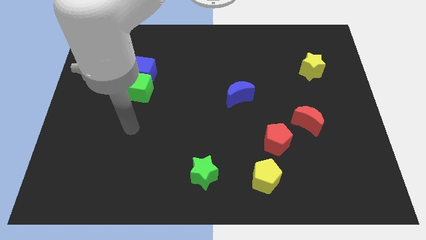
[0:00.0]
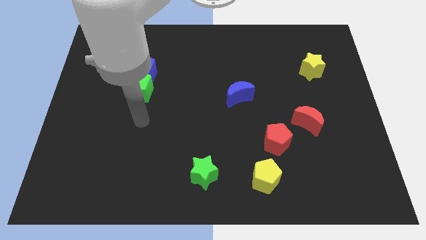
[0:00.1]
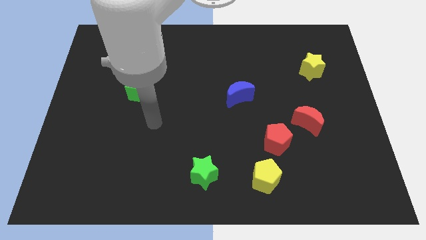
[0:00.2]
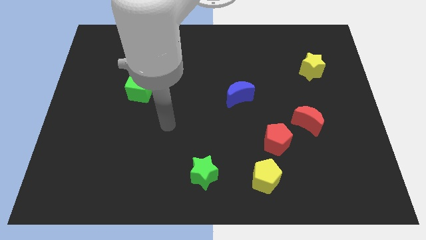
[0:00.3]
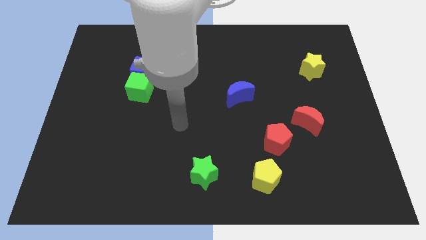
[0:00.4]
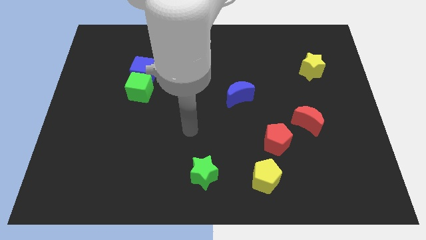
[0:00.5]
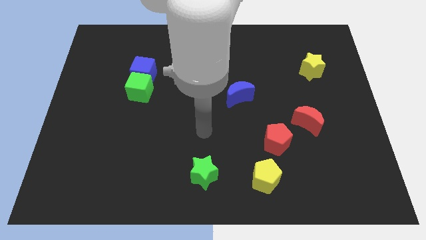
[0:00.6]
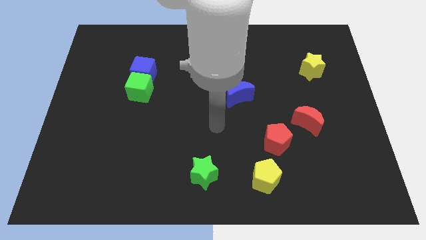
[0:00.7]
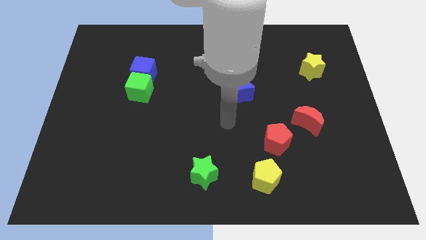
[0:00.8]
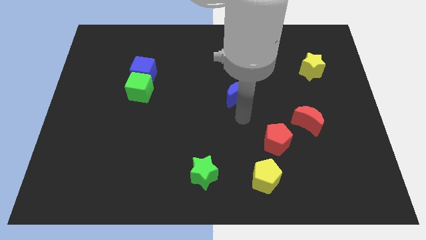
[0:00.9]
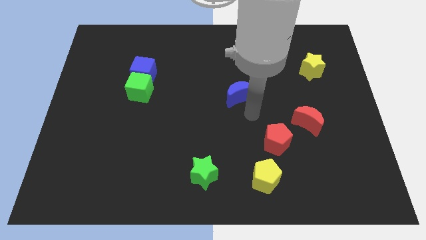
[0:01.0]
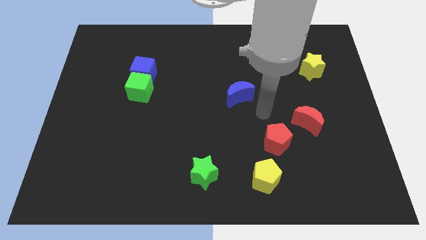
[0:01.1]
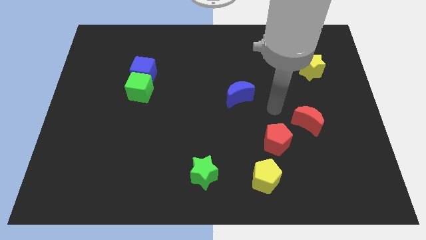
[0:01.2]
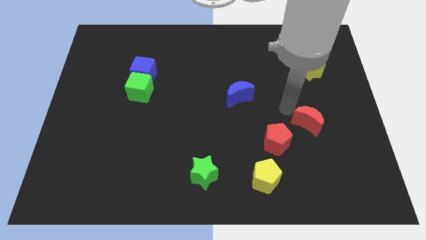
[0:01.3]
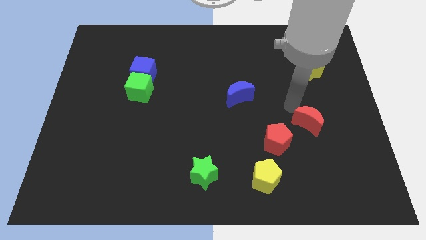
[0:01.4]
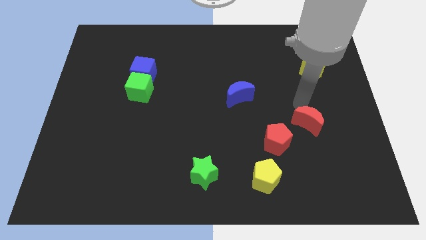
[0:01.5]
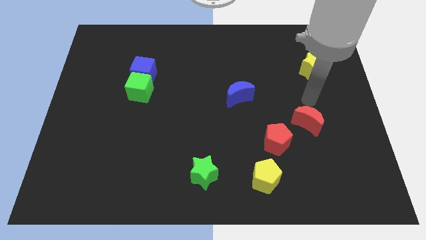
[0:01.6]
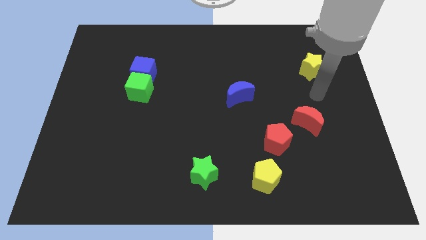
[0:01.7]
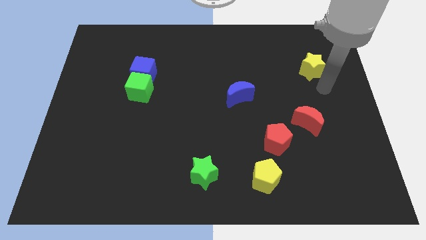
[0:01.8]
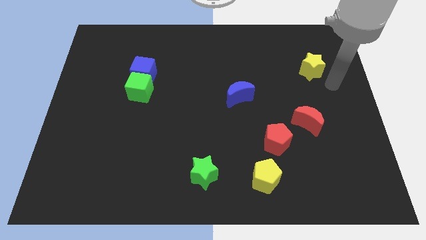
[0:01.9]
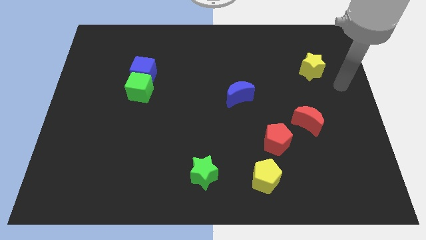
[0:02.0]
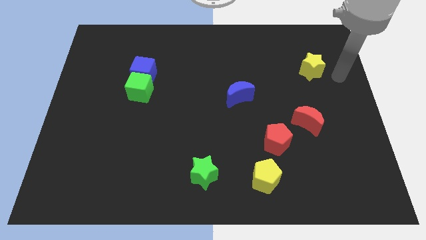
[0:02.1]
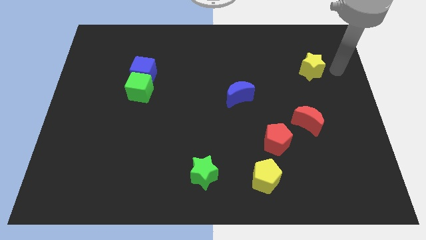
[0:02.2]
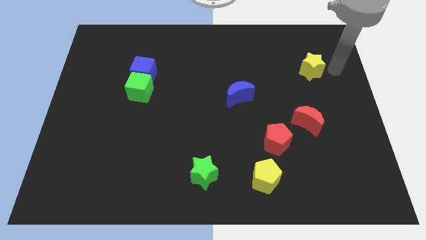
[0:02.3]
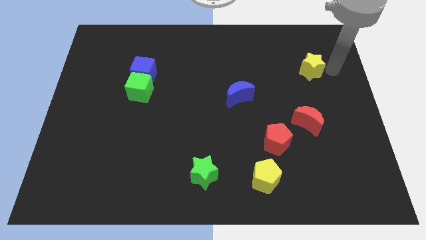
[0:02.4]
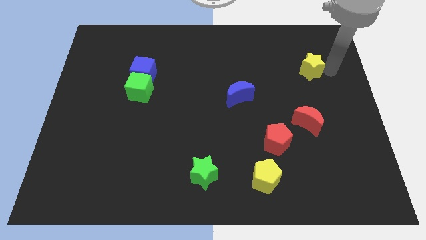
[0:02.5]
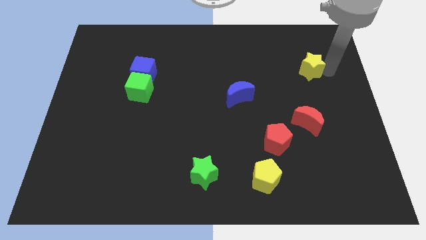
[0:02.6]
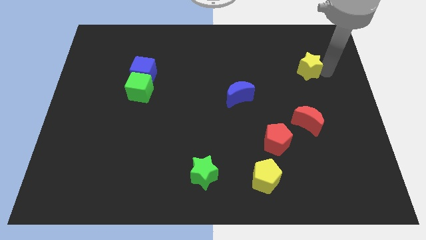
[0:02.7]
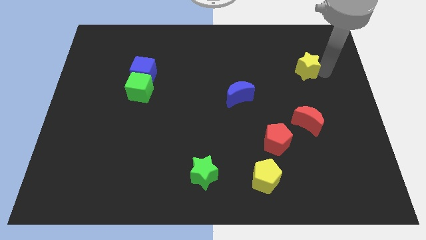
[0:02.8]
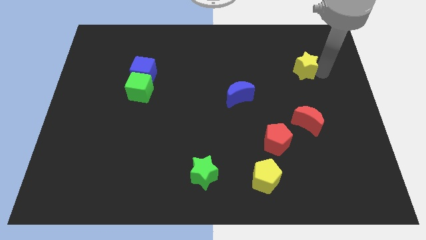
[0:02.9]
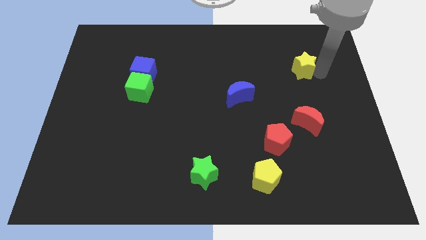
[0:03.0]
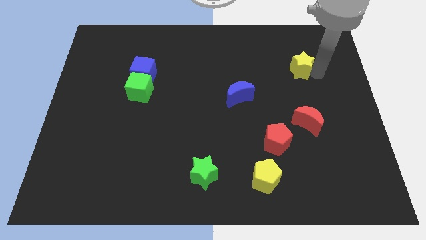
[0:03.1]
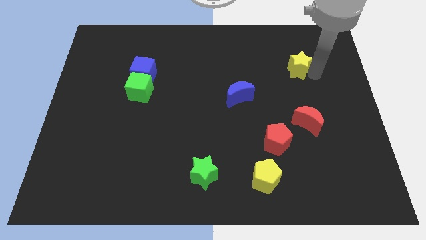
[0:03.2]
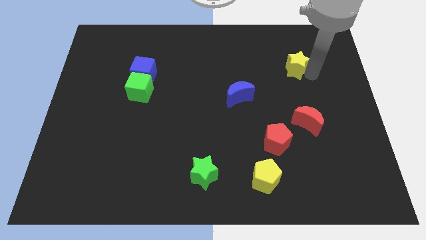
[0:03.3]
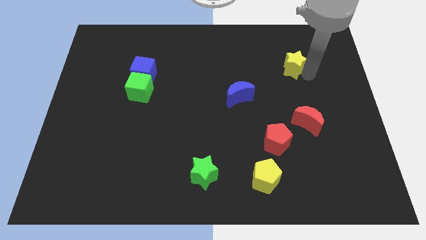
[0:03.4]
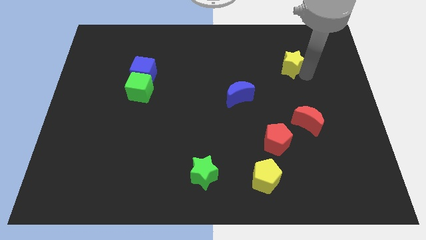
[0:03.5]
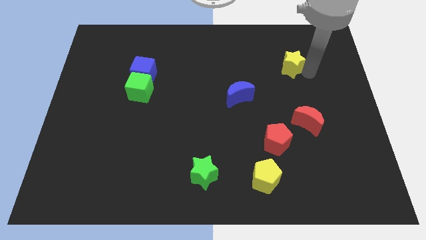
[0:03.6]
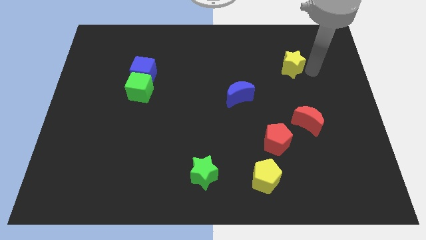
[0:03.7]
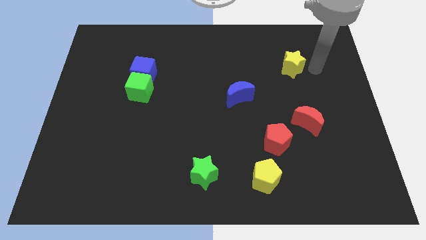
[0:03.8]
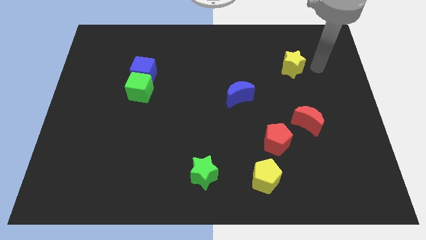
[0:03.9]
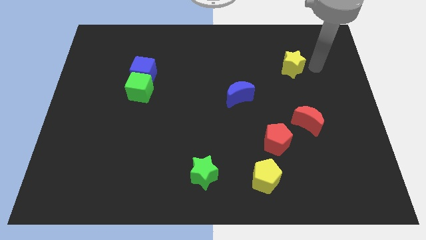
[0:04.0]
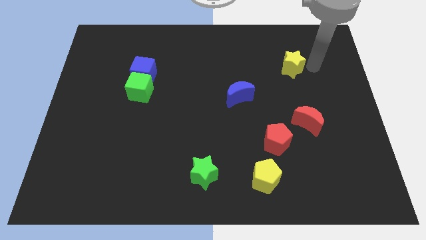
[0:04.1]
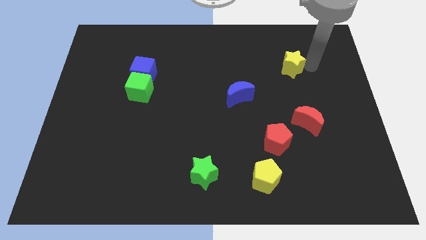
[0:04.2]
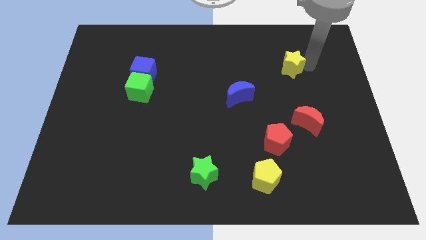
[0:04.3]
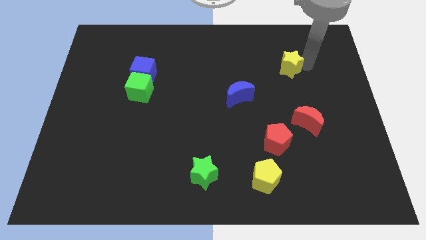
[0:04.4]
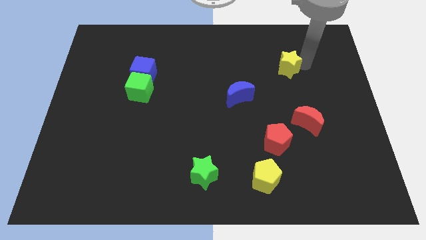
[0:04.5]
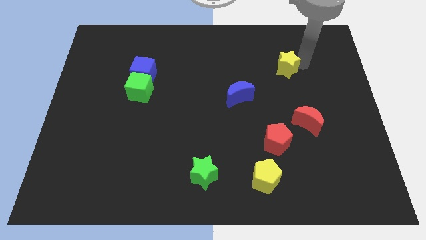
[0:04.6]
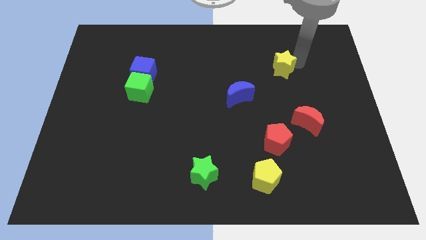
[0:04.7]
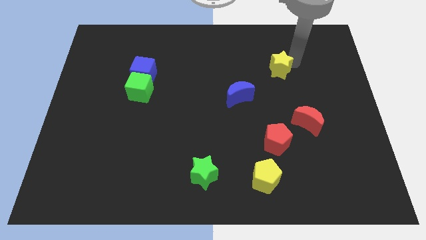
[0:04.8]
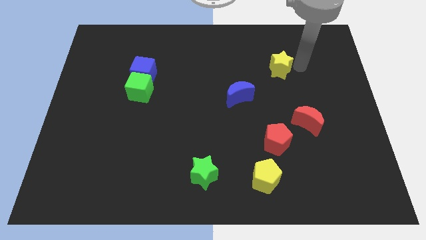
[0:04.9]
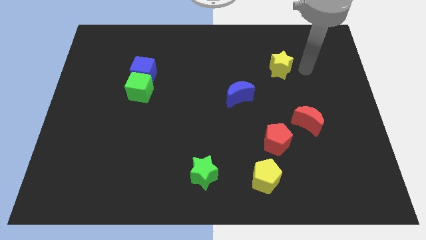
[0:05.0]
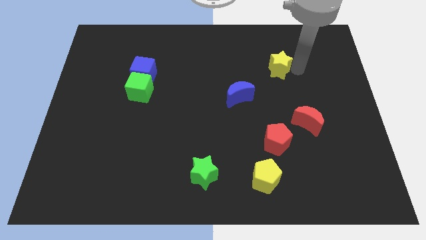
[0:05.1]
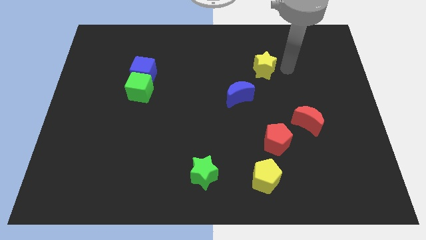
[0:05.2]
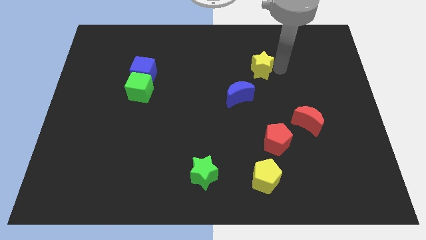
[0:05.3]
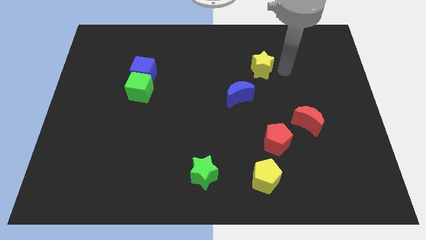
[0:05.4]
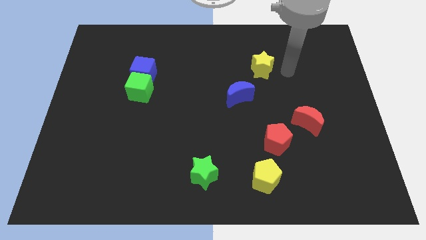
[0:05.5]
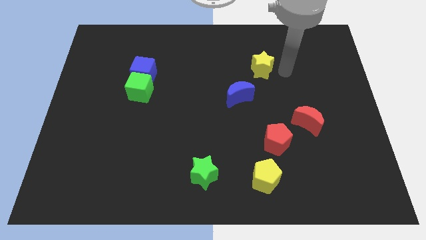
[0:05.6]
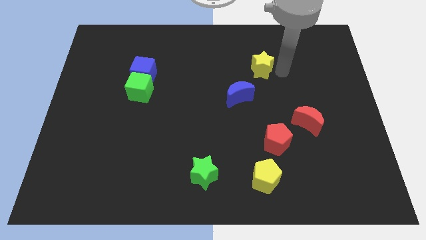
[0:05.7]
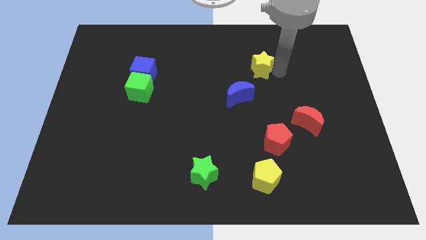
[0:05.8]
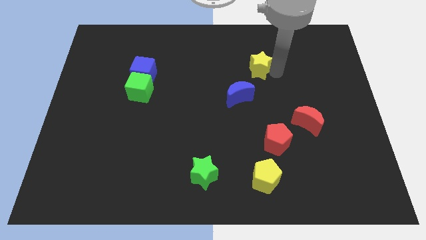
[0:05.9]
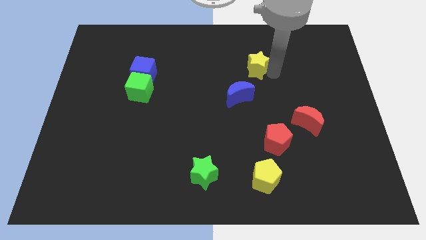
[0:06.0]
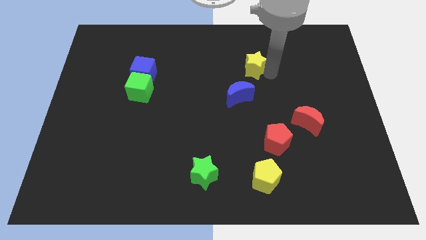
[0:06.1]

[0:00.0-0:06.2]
push the yellow star to the top side of the blue moon

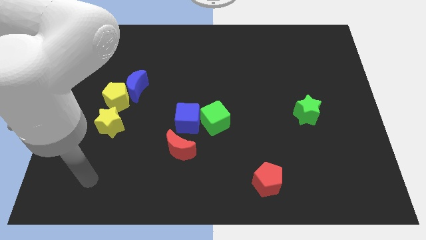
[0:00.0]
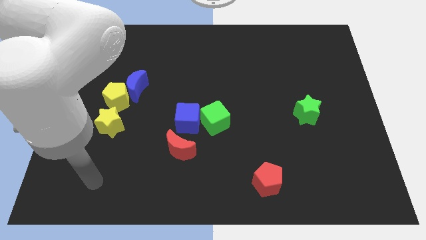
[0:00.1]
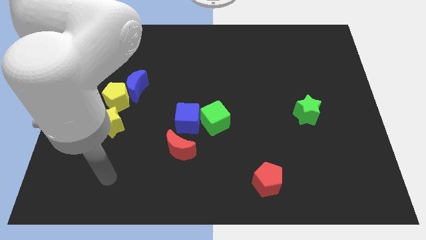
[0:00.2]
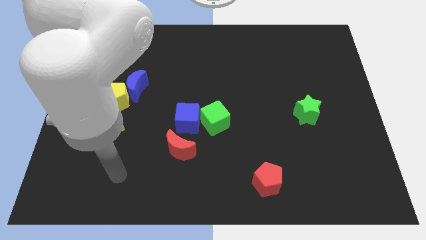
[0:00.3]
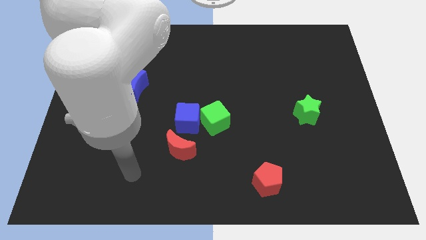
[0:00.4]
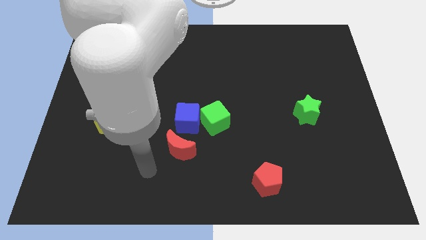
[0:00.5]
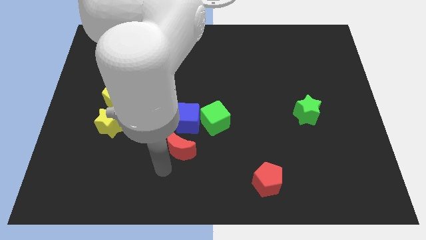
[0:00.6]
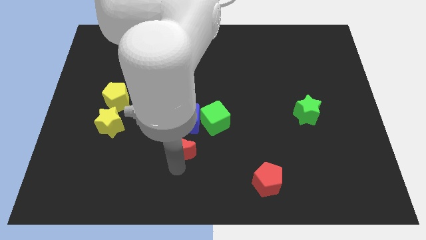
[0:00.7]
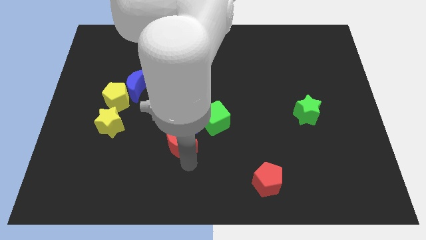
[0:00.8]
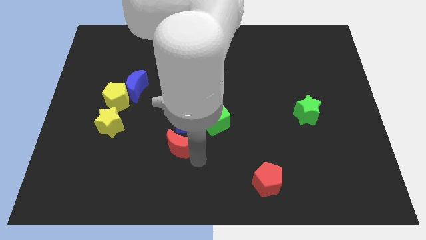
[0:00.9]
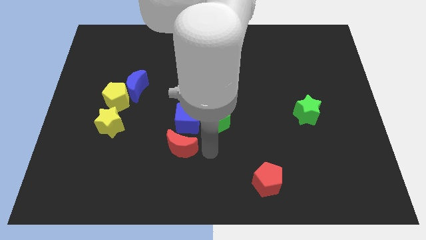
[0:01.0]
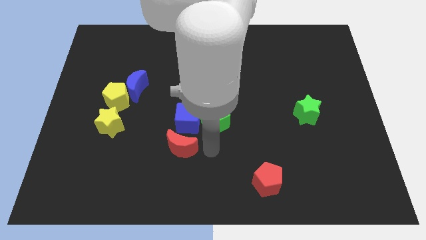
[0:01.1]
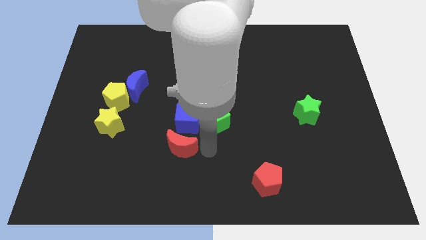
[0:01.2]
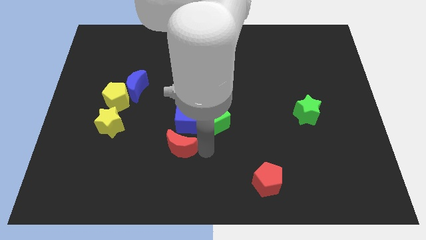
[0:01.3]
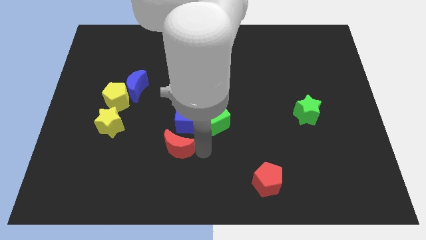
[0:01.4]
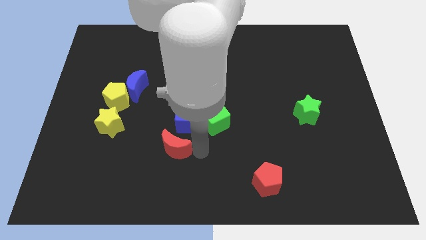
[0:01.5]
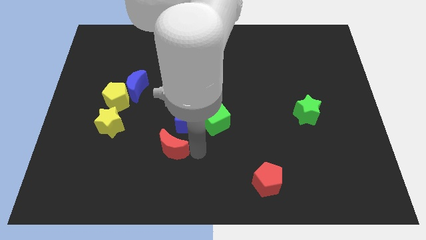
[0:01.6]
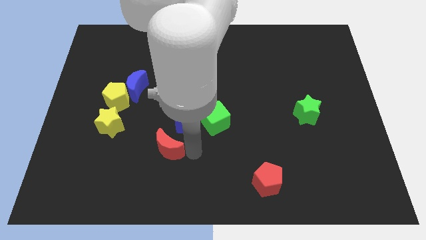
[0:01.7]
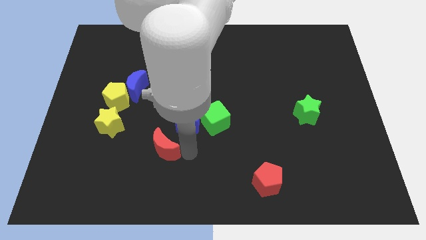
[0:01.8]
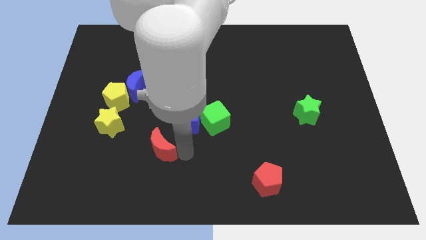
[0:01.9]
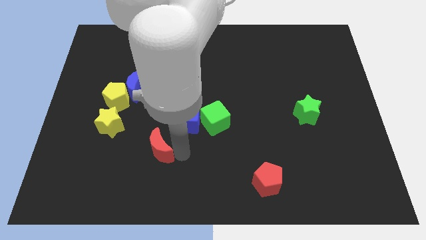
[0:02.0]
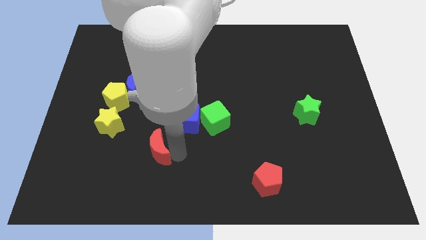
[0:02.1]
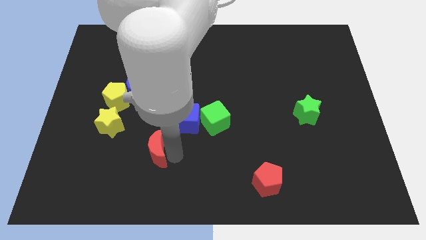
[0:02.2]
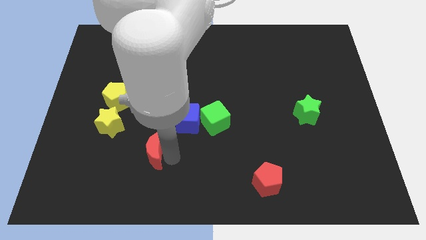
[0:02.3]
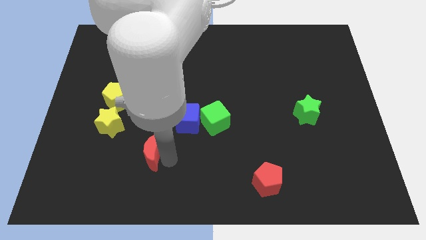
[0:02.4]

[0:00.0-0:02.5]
move the red moon diagonally down and to the right of the yellow star
